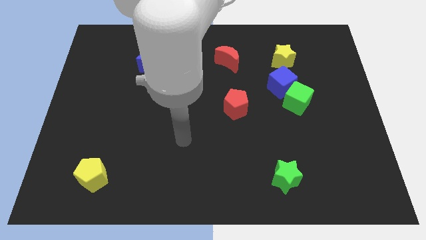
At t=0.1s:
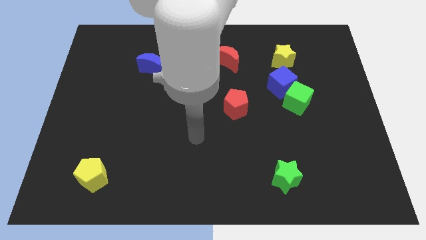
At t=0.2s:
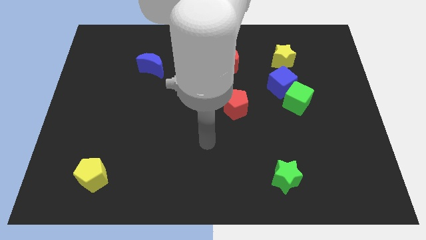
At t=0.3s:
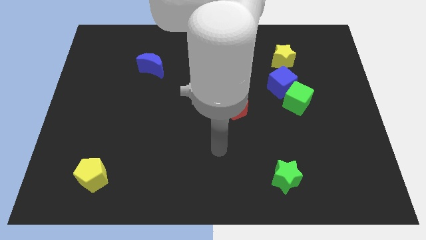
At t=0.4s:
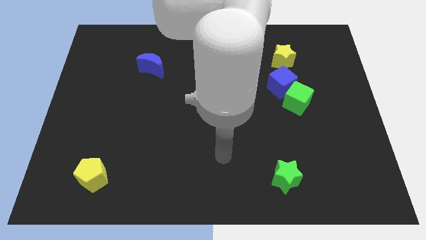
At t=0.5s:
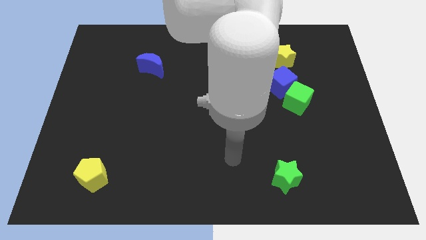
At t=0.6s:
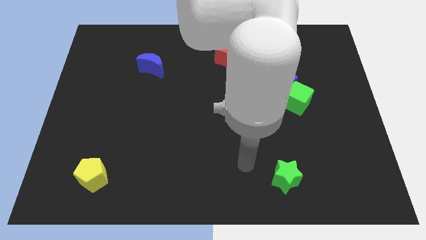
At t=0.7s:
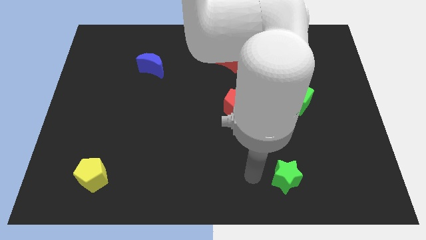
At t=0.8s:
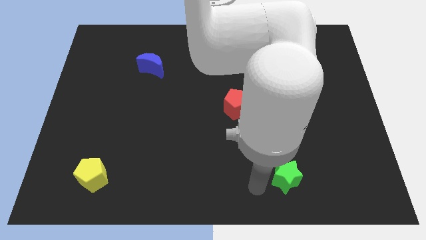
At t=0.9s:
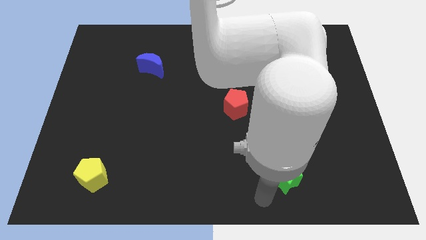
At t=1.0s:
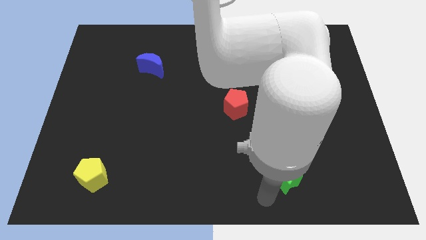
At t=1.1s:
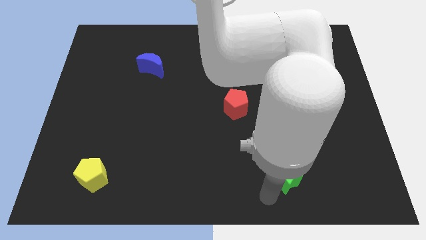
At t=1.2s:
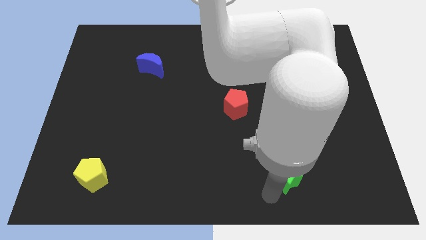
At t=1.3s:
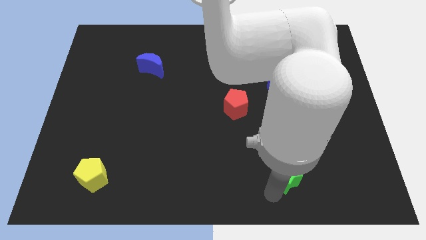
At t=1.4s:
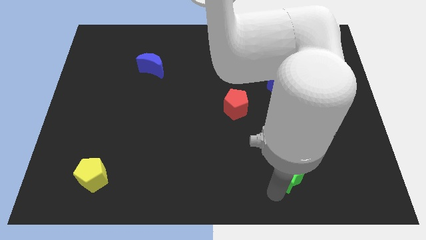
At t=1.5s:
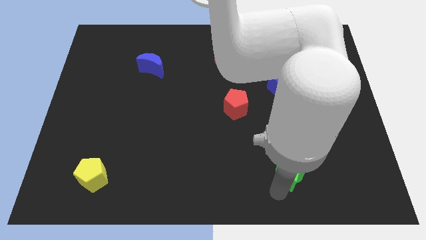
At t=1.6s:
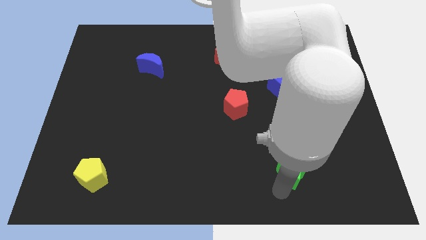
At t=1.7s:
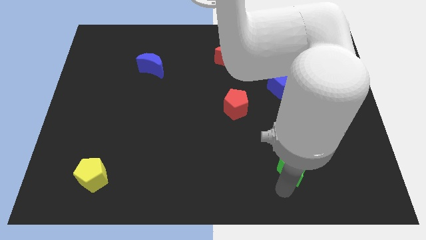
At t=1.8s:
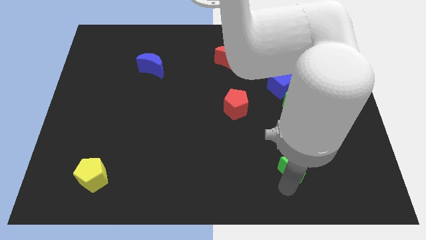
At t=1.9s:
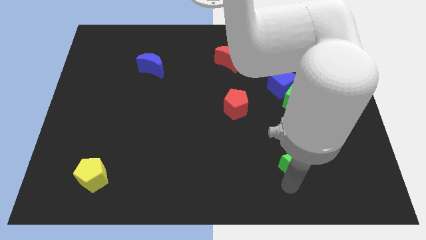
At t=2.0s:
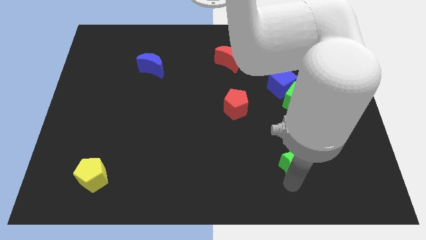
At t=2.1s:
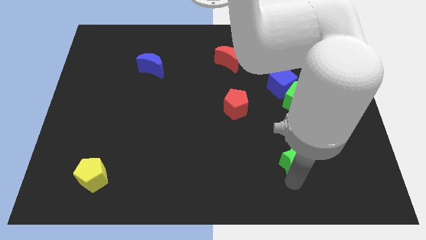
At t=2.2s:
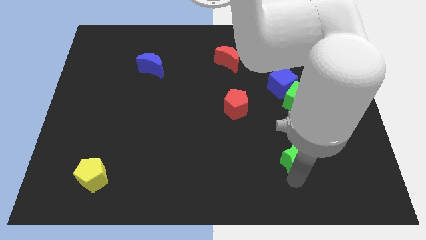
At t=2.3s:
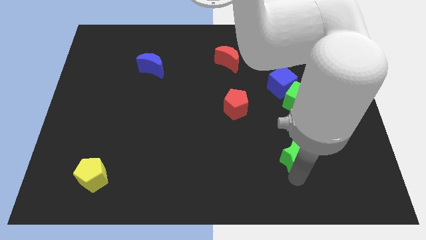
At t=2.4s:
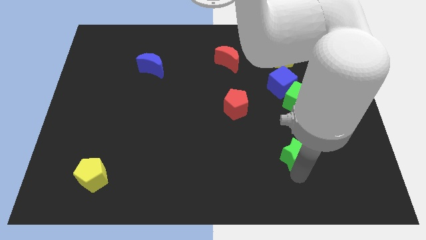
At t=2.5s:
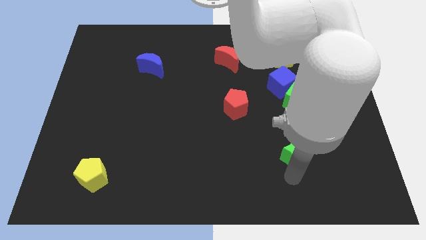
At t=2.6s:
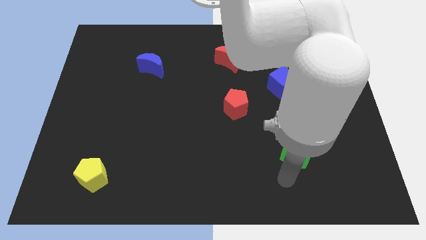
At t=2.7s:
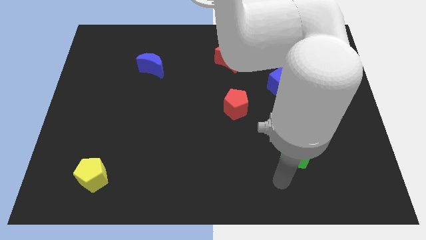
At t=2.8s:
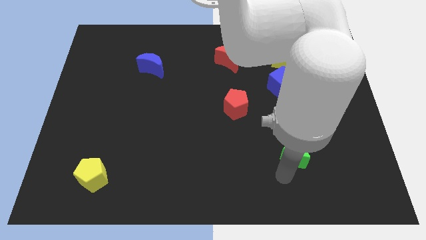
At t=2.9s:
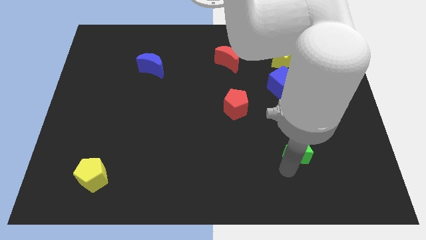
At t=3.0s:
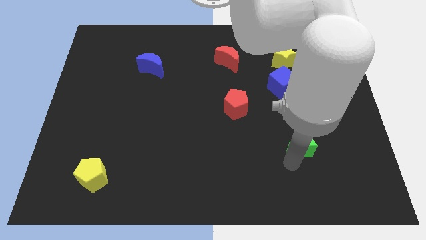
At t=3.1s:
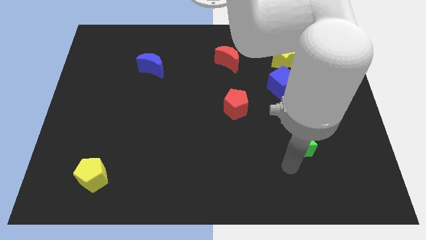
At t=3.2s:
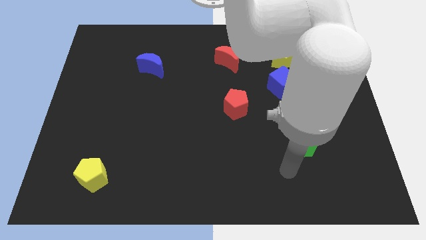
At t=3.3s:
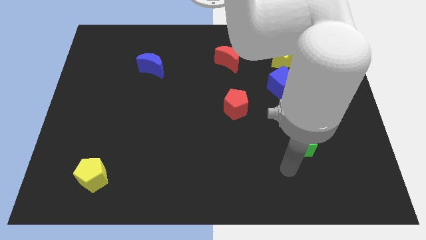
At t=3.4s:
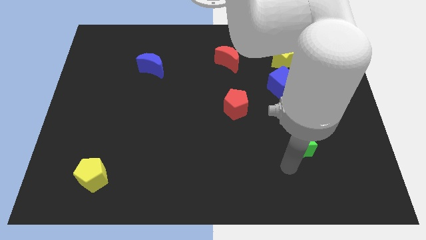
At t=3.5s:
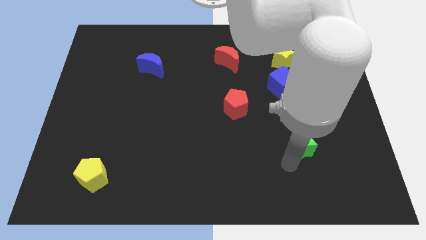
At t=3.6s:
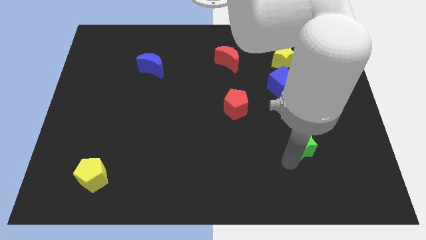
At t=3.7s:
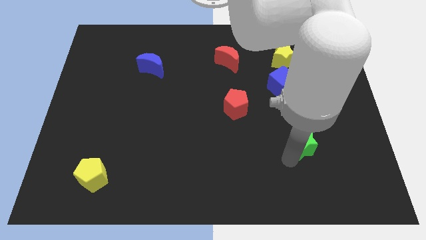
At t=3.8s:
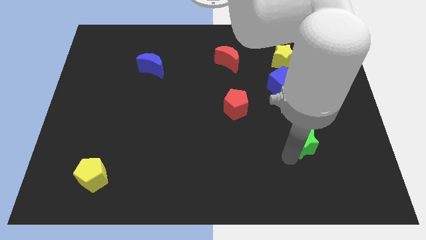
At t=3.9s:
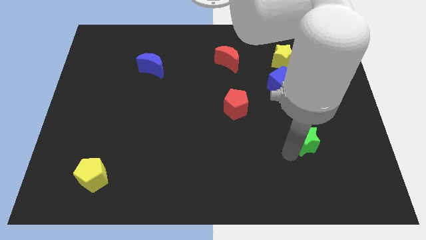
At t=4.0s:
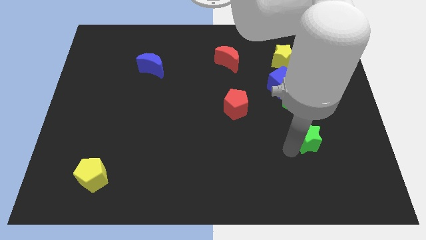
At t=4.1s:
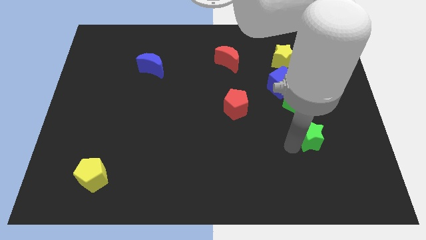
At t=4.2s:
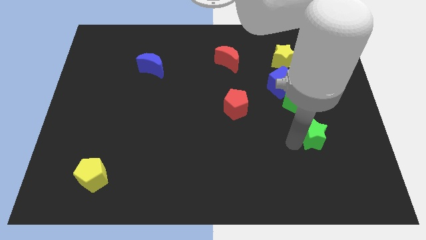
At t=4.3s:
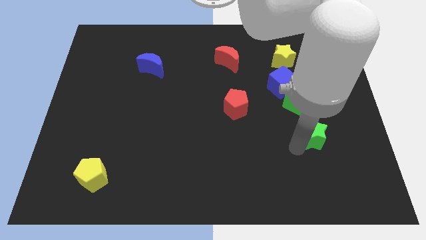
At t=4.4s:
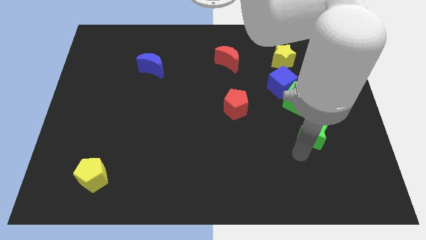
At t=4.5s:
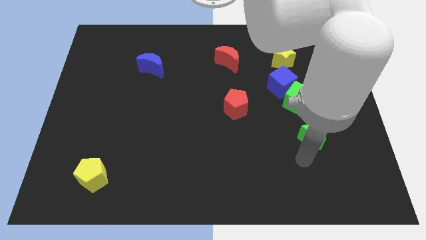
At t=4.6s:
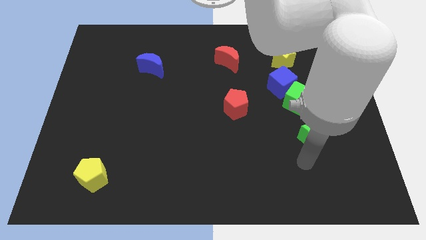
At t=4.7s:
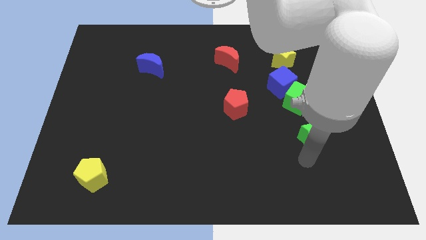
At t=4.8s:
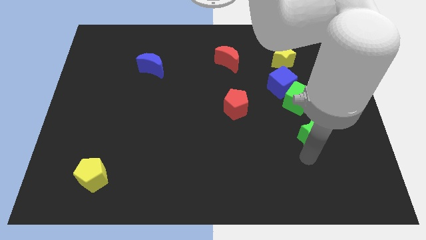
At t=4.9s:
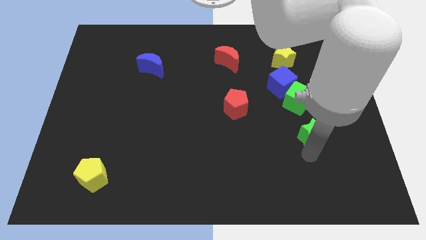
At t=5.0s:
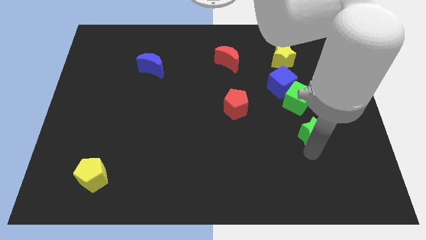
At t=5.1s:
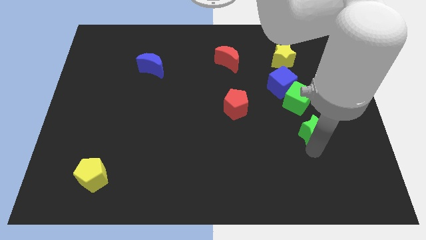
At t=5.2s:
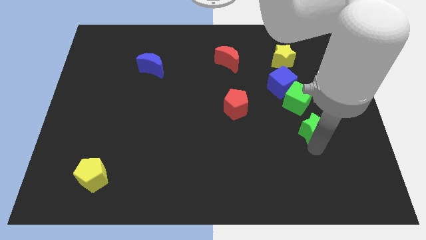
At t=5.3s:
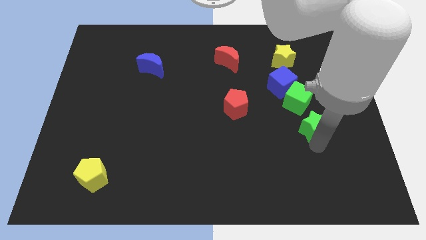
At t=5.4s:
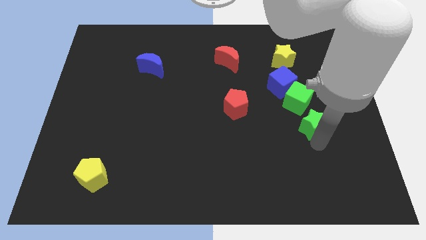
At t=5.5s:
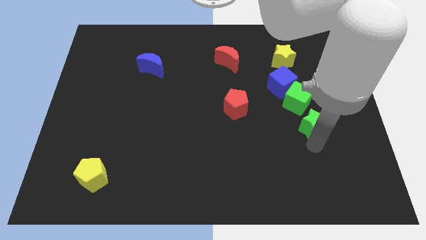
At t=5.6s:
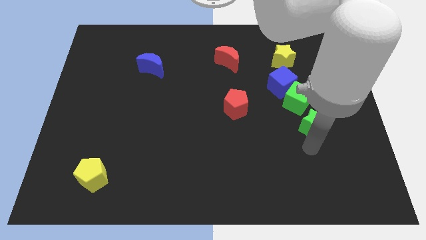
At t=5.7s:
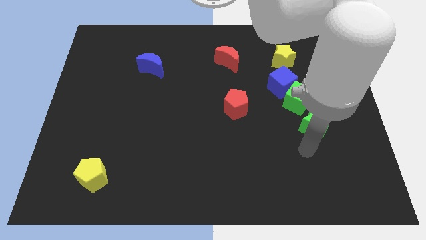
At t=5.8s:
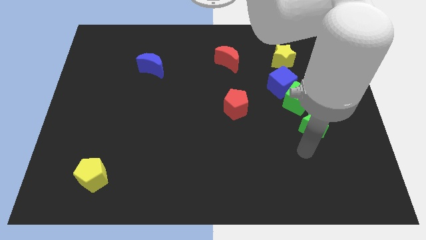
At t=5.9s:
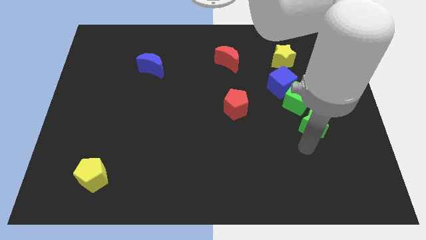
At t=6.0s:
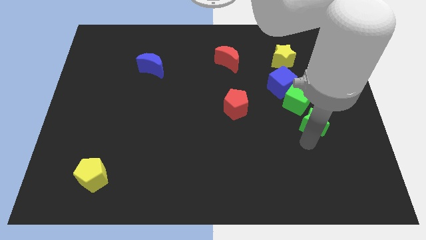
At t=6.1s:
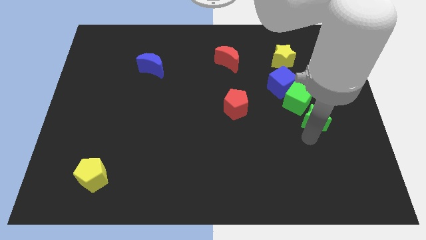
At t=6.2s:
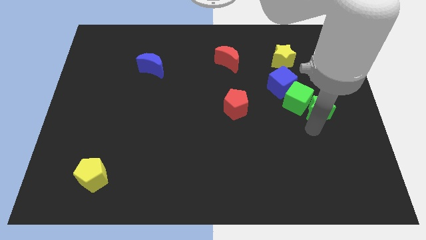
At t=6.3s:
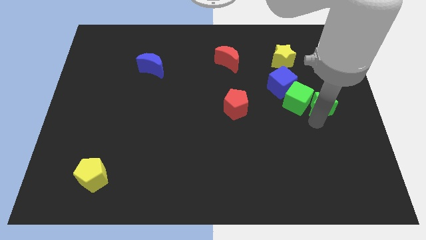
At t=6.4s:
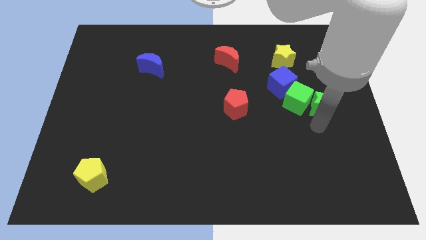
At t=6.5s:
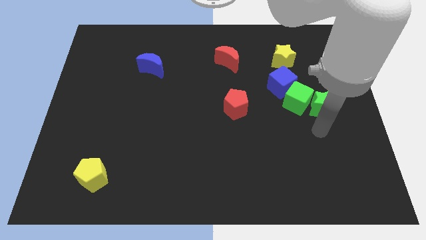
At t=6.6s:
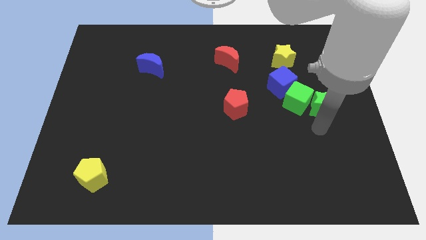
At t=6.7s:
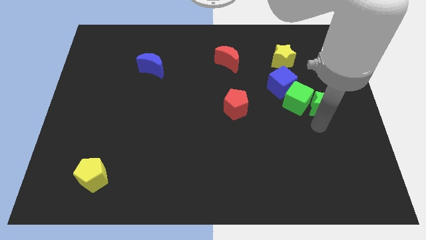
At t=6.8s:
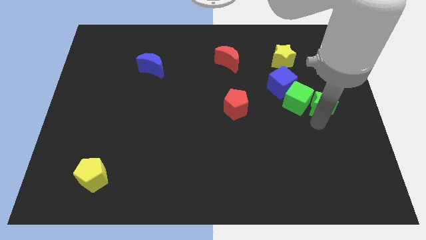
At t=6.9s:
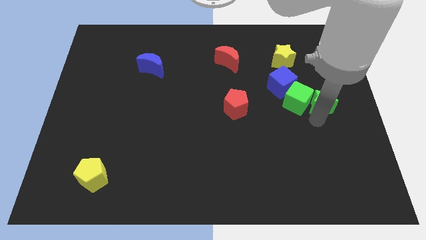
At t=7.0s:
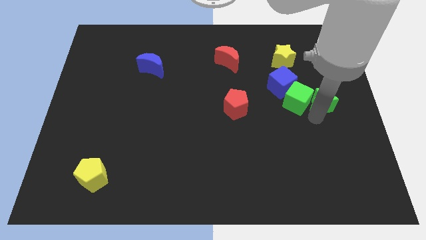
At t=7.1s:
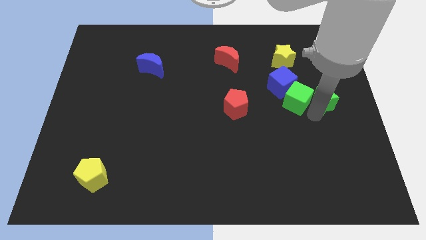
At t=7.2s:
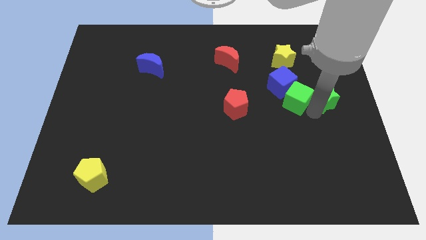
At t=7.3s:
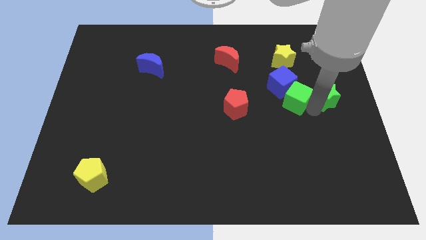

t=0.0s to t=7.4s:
push the green star to the right of the blue cube
